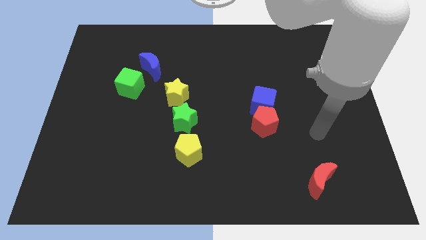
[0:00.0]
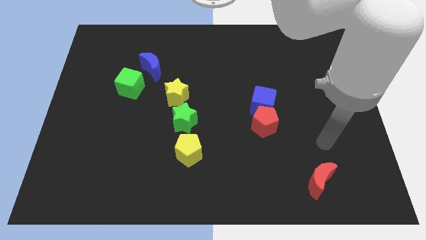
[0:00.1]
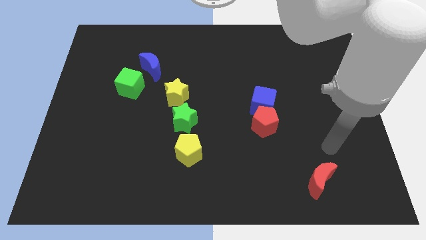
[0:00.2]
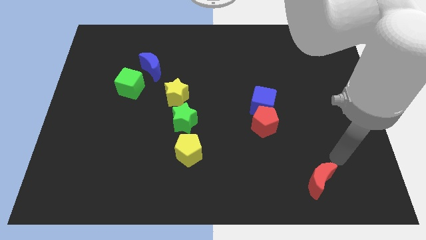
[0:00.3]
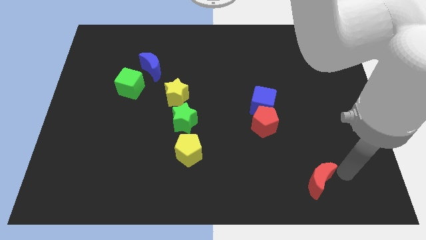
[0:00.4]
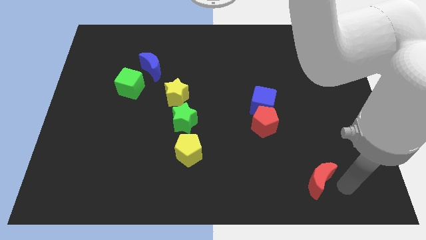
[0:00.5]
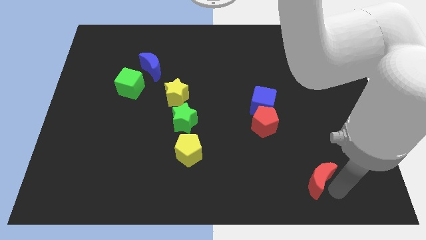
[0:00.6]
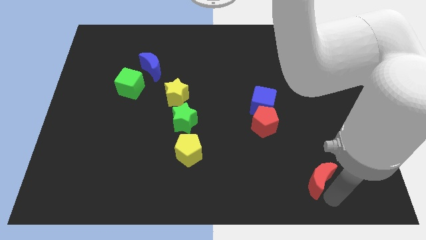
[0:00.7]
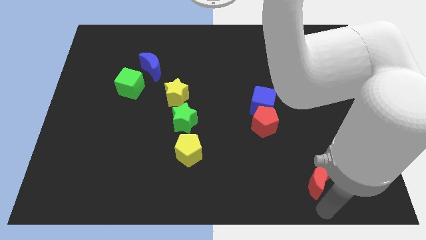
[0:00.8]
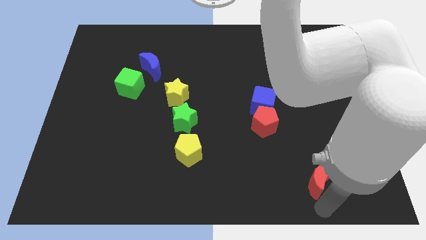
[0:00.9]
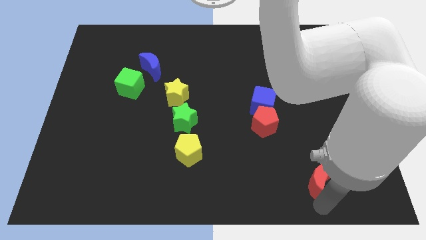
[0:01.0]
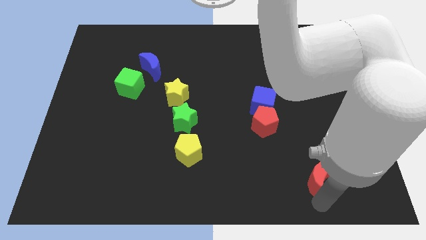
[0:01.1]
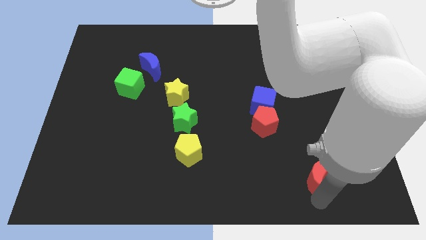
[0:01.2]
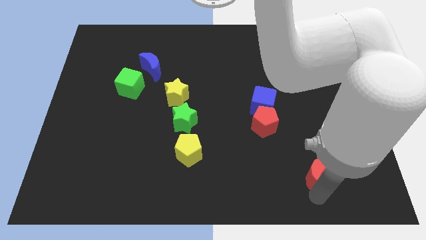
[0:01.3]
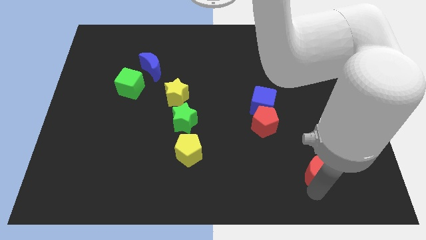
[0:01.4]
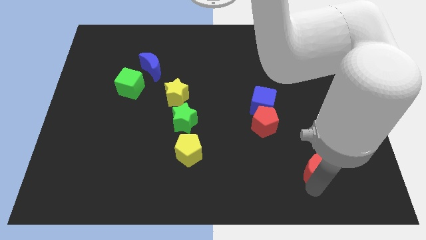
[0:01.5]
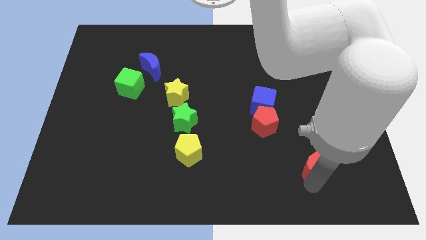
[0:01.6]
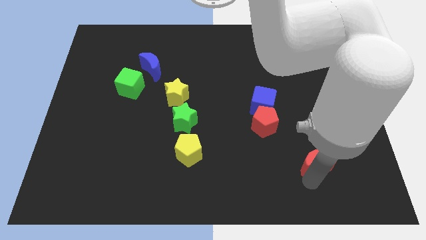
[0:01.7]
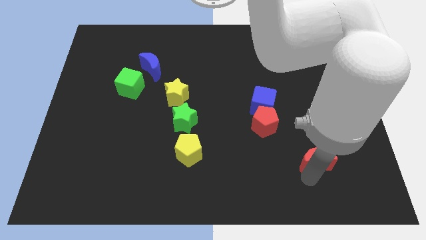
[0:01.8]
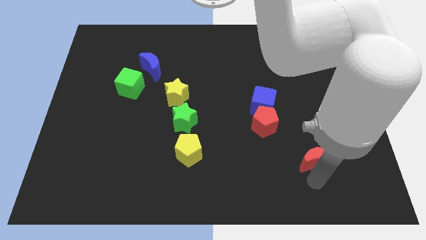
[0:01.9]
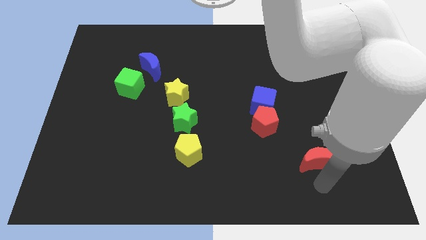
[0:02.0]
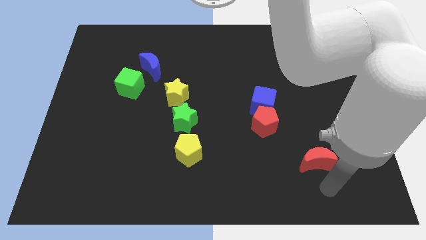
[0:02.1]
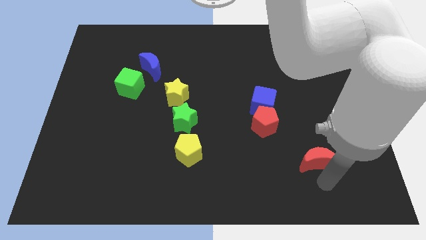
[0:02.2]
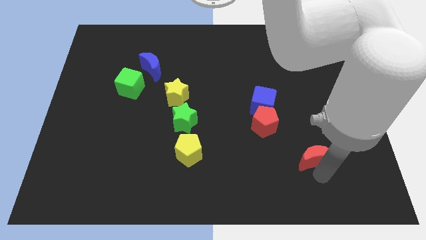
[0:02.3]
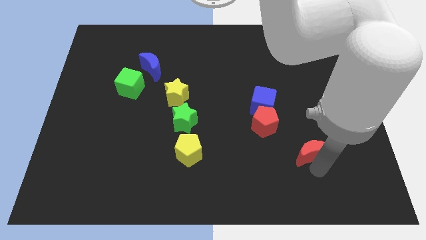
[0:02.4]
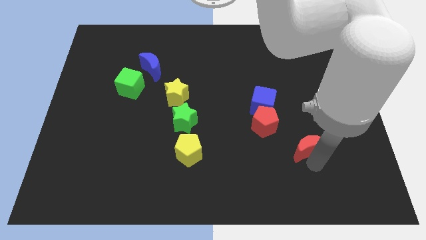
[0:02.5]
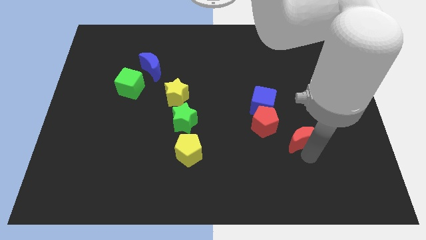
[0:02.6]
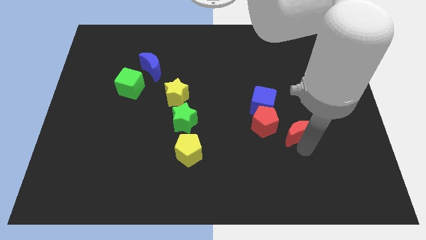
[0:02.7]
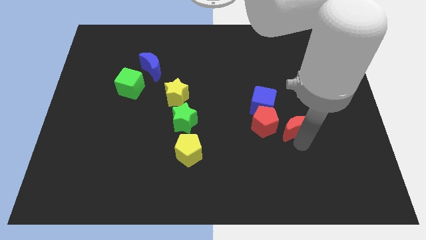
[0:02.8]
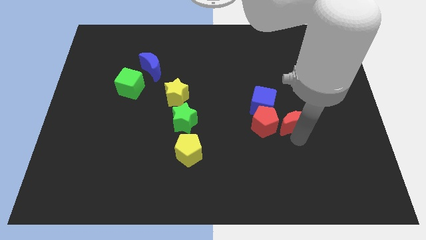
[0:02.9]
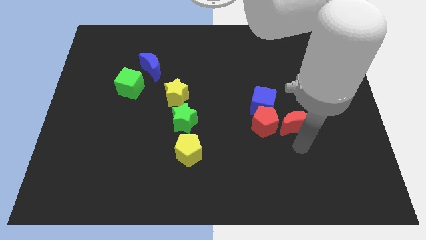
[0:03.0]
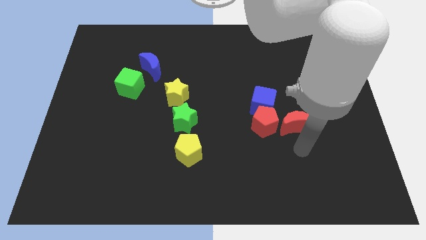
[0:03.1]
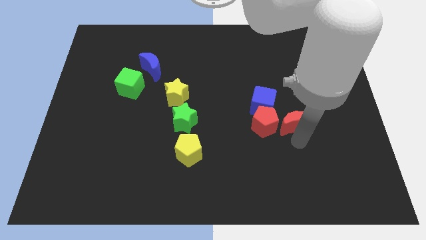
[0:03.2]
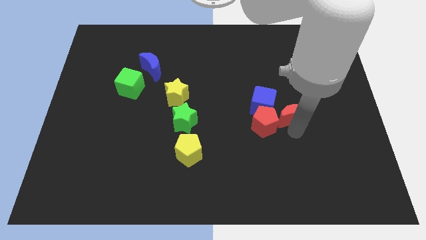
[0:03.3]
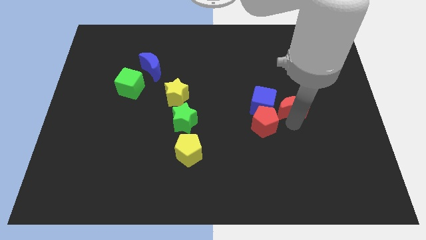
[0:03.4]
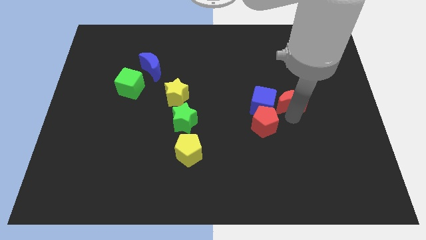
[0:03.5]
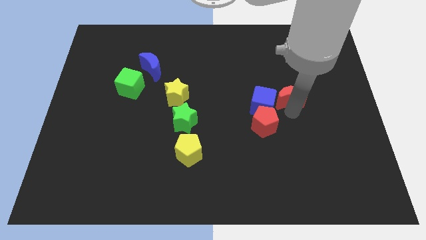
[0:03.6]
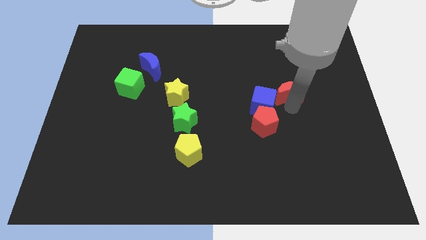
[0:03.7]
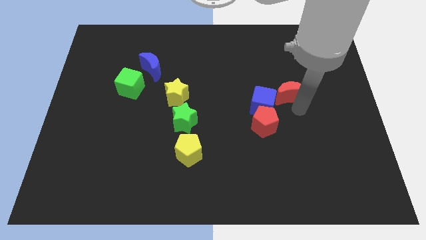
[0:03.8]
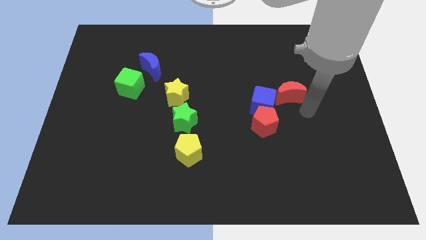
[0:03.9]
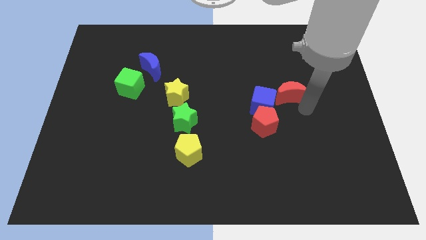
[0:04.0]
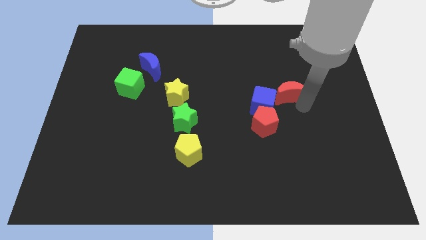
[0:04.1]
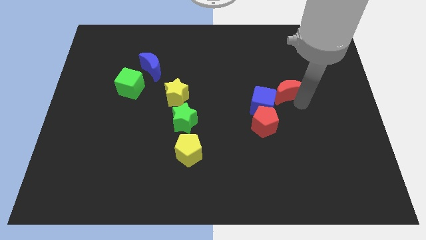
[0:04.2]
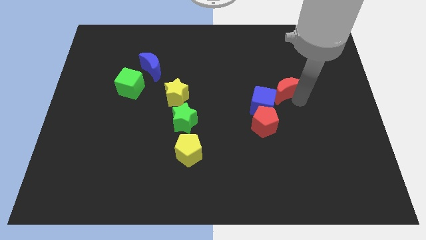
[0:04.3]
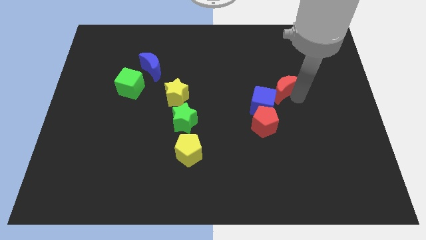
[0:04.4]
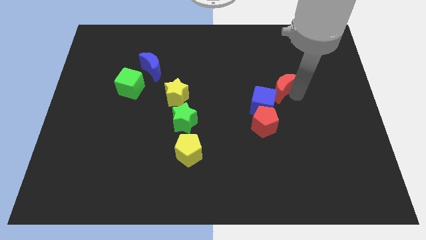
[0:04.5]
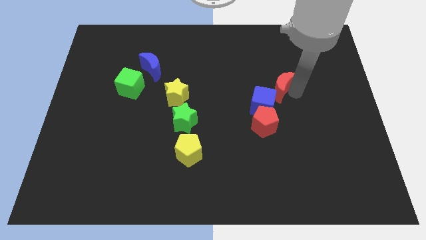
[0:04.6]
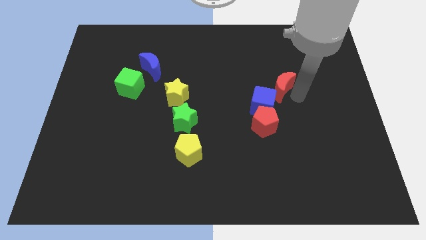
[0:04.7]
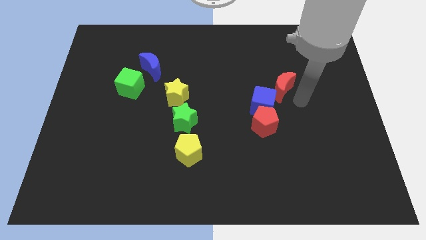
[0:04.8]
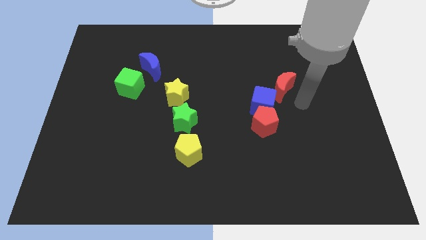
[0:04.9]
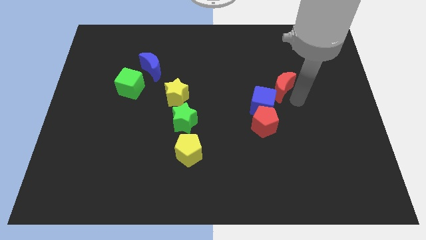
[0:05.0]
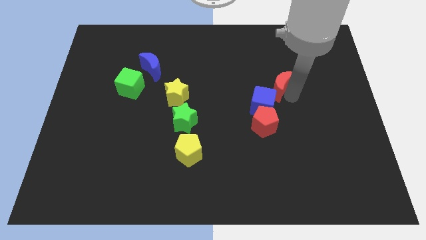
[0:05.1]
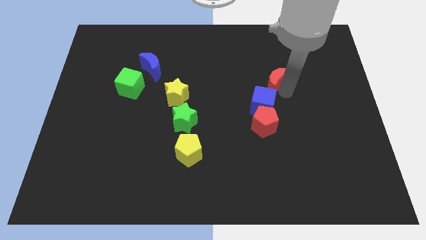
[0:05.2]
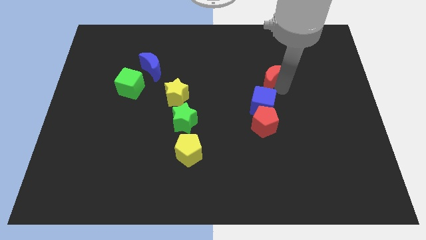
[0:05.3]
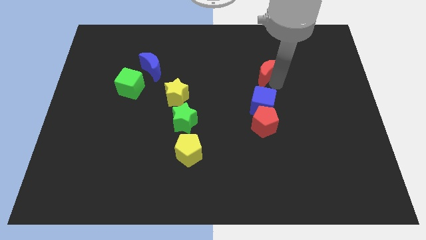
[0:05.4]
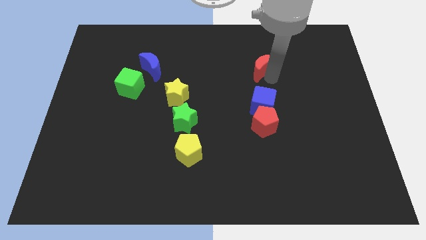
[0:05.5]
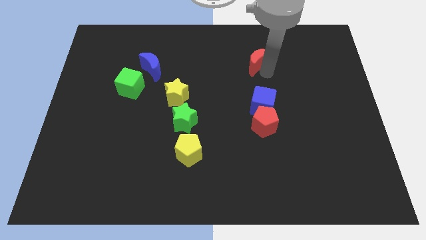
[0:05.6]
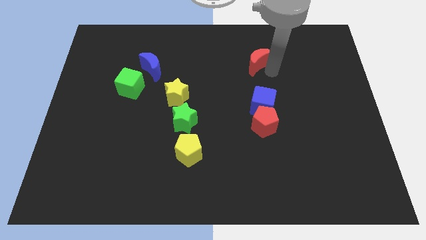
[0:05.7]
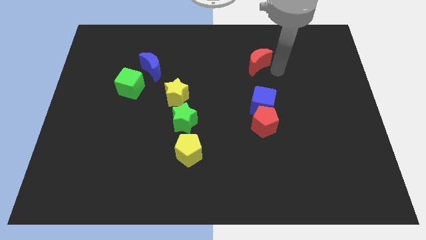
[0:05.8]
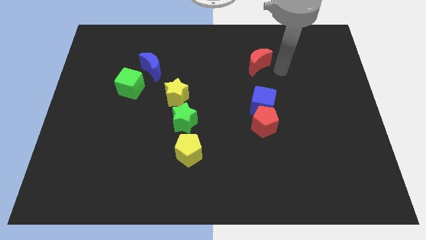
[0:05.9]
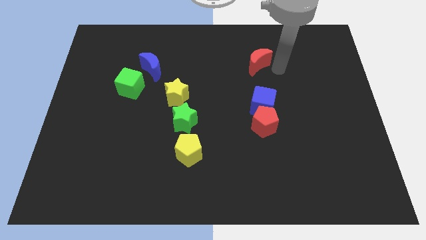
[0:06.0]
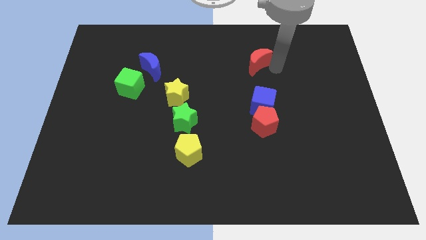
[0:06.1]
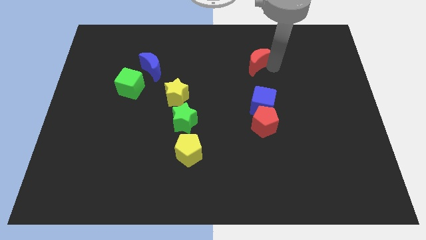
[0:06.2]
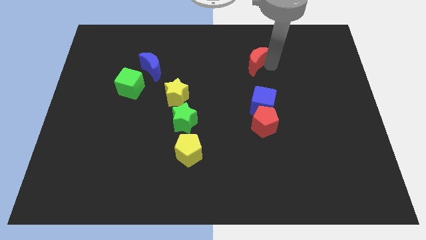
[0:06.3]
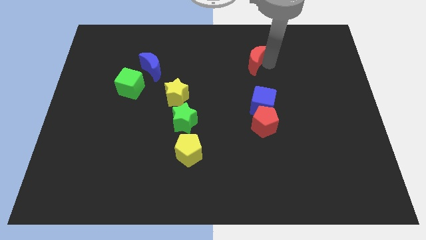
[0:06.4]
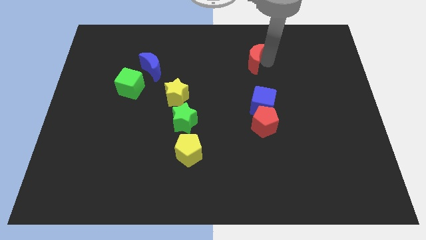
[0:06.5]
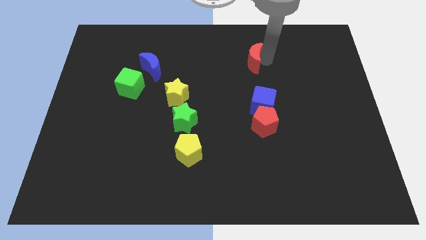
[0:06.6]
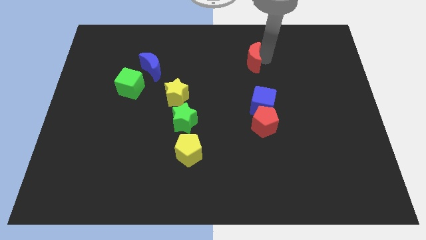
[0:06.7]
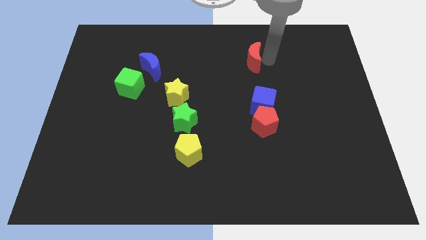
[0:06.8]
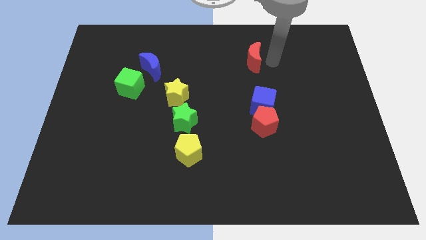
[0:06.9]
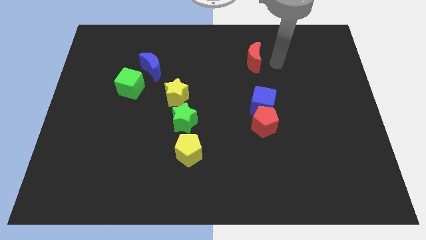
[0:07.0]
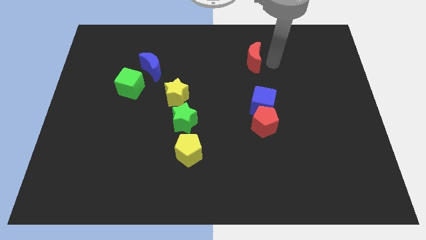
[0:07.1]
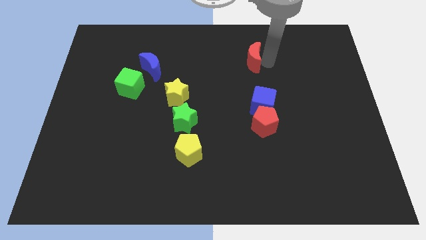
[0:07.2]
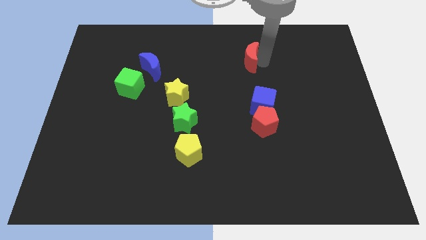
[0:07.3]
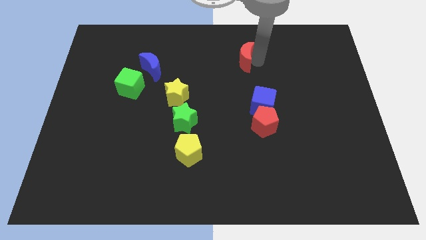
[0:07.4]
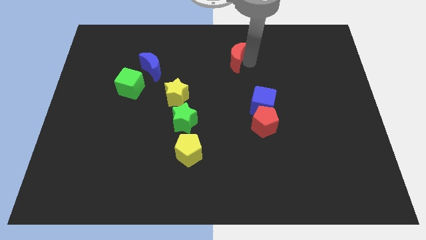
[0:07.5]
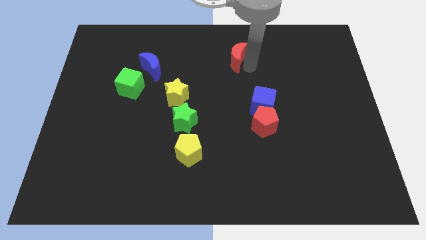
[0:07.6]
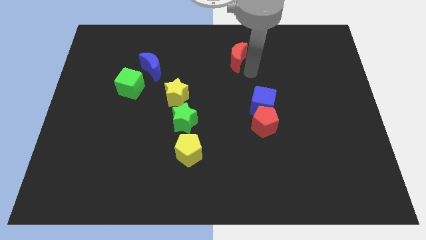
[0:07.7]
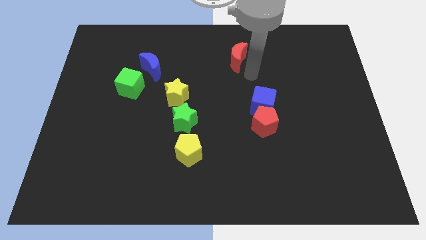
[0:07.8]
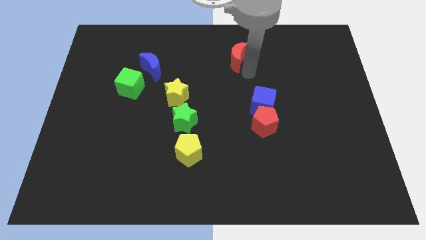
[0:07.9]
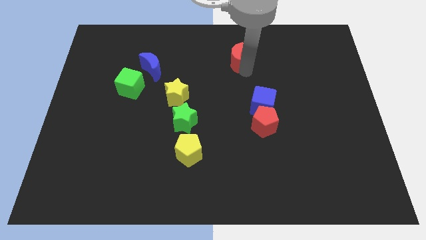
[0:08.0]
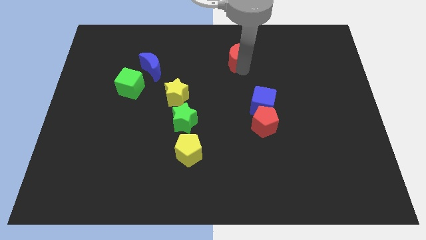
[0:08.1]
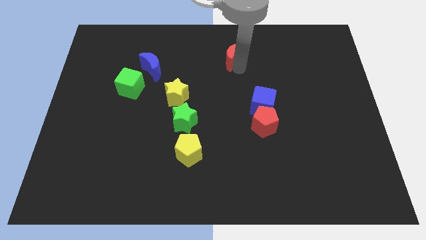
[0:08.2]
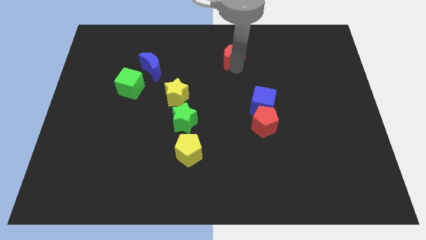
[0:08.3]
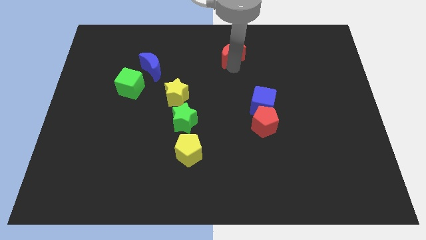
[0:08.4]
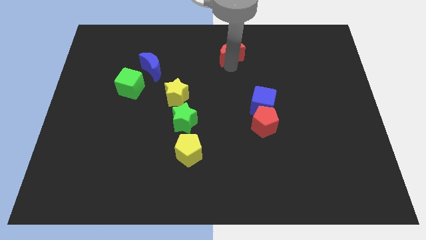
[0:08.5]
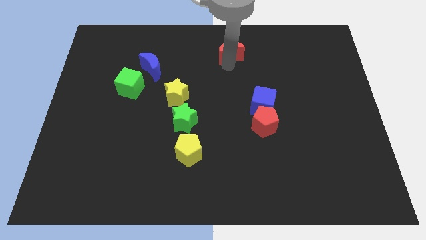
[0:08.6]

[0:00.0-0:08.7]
put the red moon to the top
